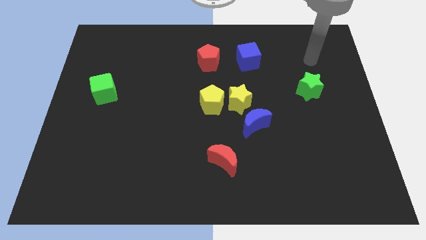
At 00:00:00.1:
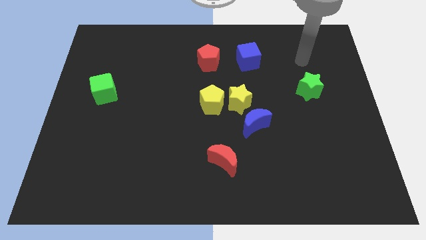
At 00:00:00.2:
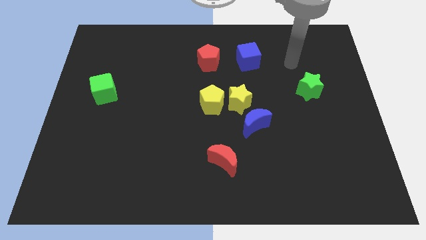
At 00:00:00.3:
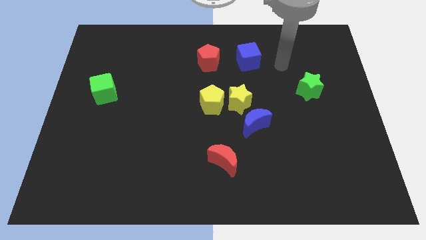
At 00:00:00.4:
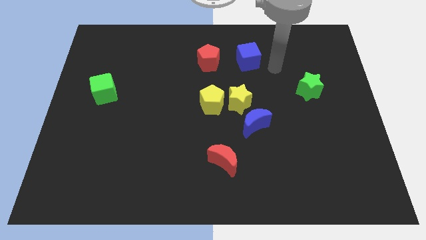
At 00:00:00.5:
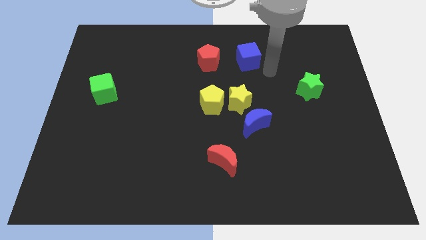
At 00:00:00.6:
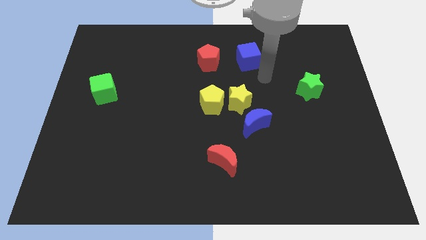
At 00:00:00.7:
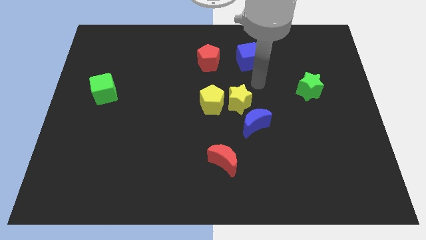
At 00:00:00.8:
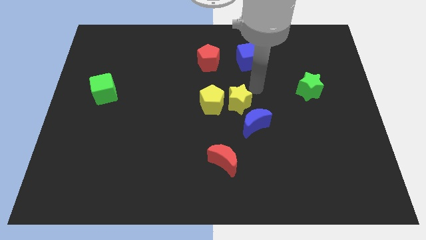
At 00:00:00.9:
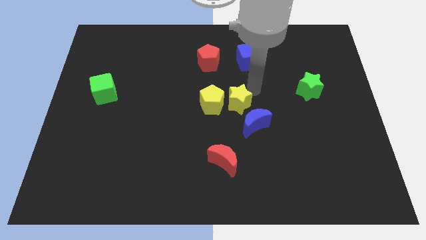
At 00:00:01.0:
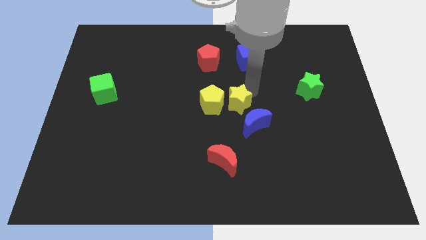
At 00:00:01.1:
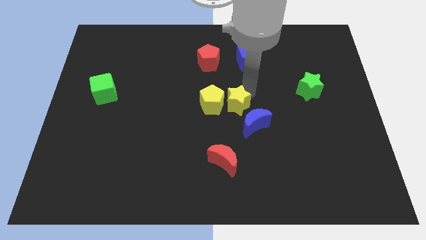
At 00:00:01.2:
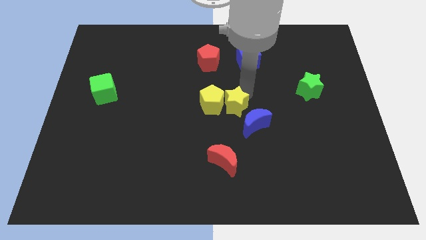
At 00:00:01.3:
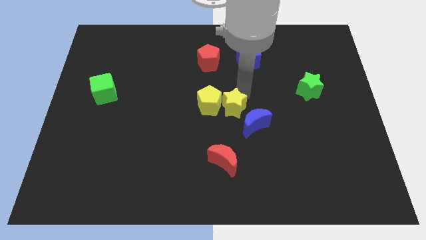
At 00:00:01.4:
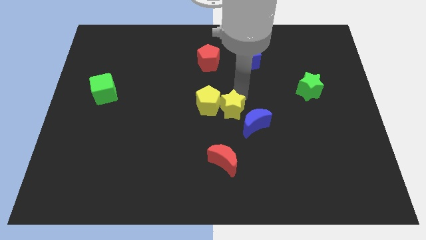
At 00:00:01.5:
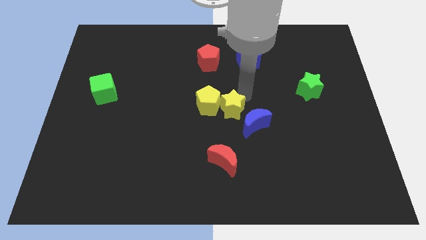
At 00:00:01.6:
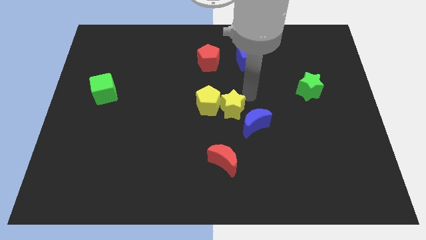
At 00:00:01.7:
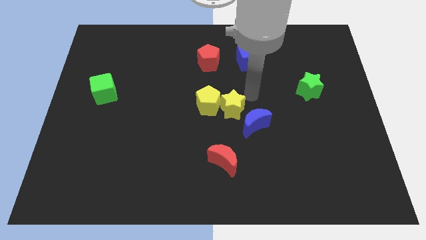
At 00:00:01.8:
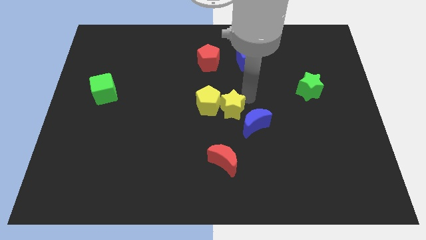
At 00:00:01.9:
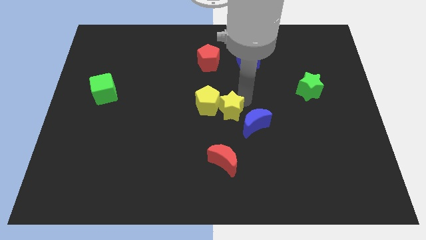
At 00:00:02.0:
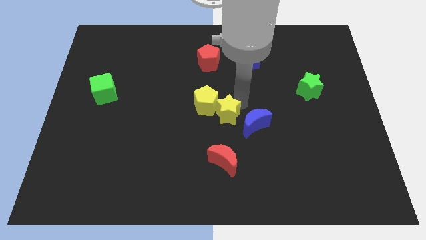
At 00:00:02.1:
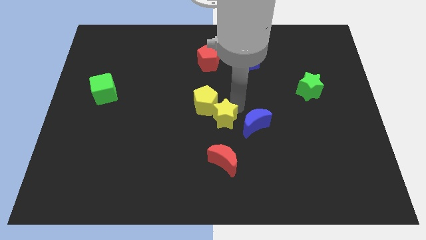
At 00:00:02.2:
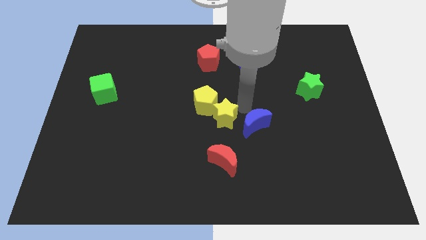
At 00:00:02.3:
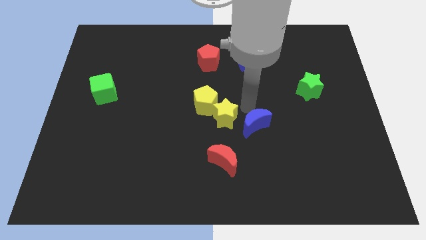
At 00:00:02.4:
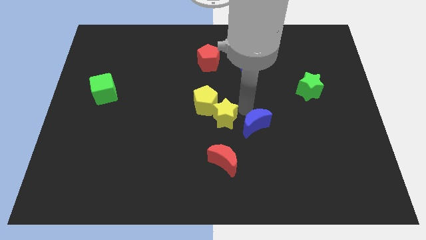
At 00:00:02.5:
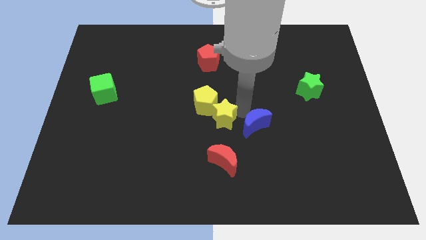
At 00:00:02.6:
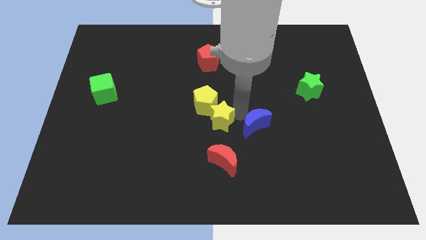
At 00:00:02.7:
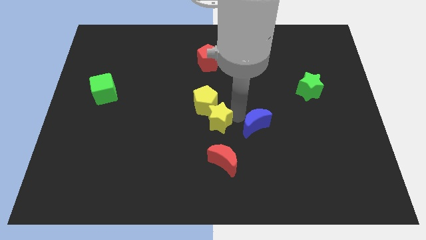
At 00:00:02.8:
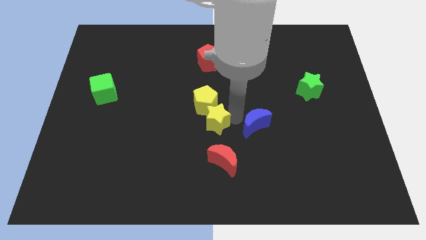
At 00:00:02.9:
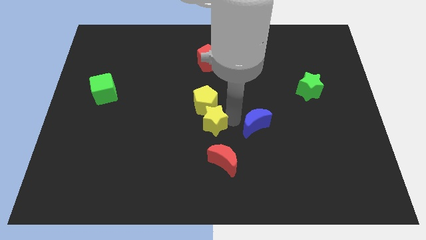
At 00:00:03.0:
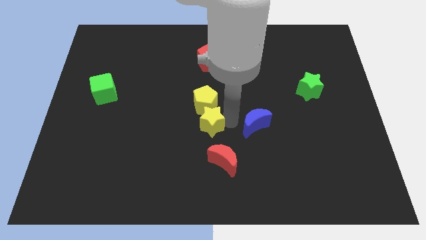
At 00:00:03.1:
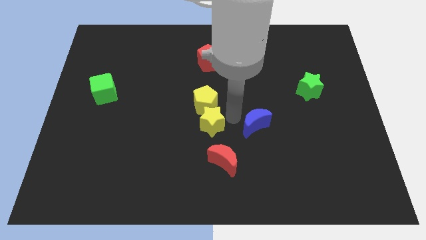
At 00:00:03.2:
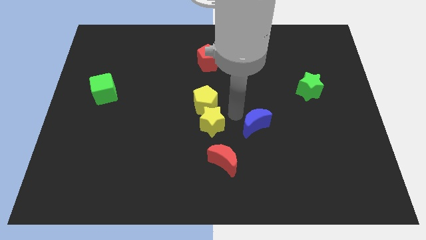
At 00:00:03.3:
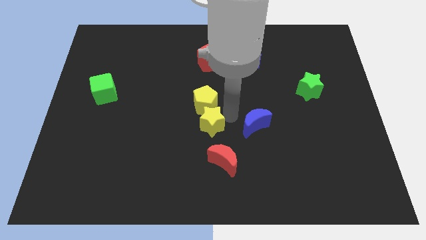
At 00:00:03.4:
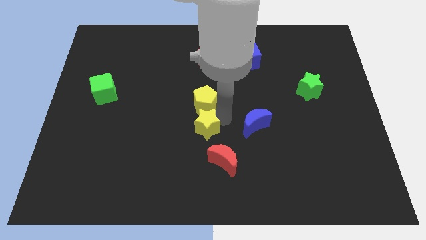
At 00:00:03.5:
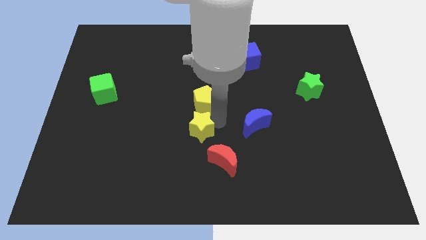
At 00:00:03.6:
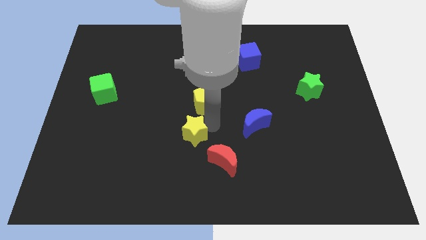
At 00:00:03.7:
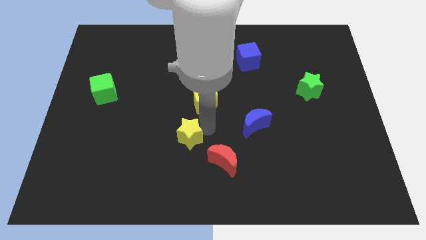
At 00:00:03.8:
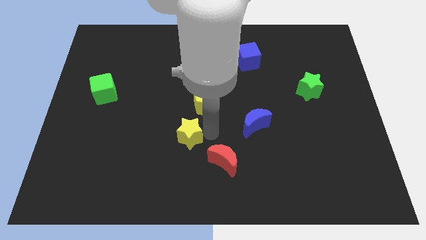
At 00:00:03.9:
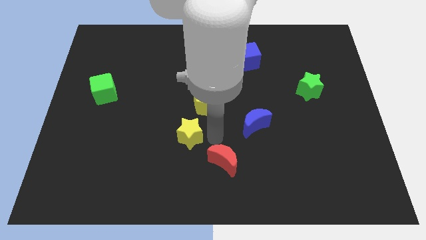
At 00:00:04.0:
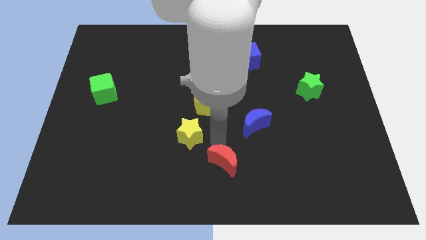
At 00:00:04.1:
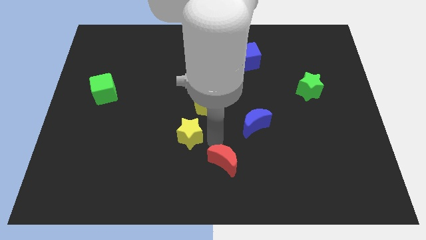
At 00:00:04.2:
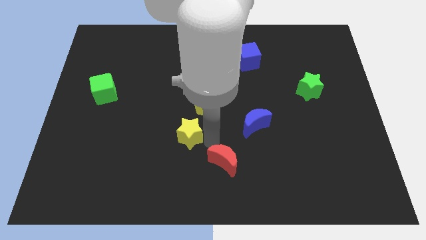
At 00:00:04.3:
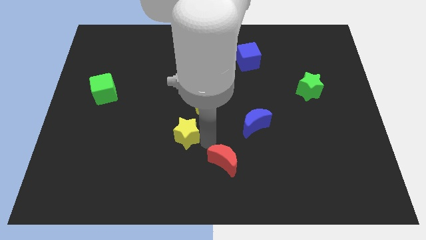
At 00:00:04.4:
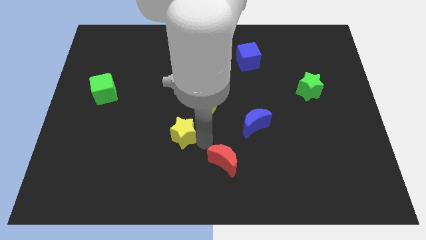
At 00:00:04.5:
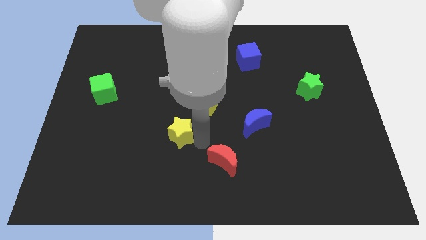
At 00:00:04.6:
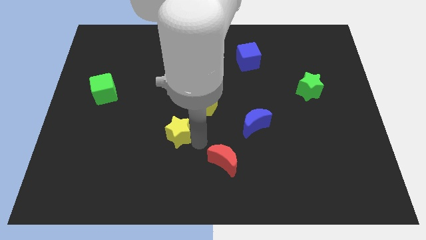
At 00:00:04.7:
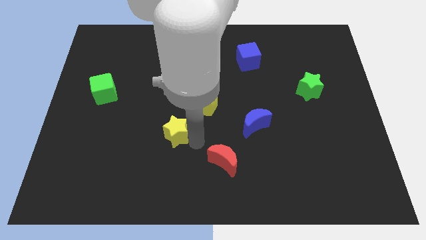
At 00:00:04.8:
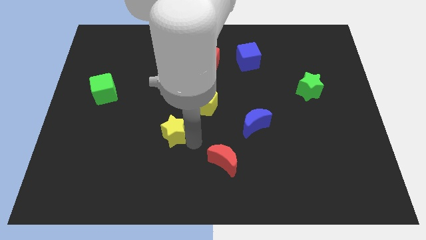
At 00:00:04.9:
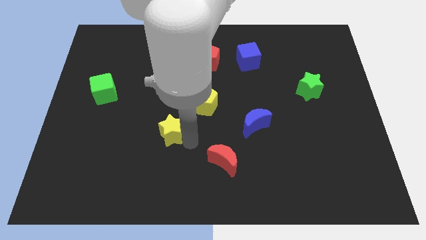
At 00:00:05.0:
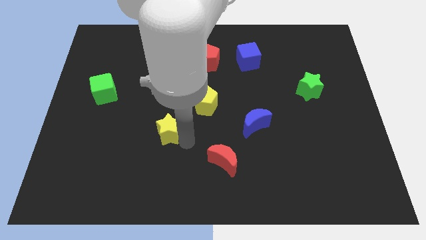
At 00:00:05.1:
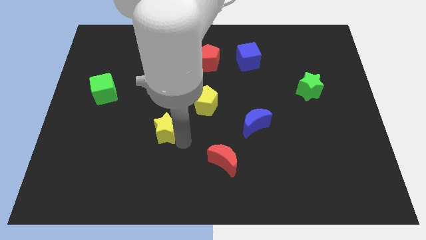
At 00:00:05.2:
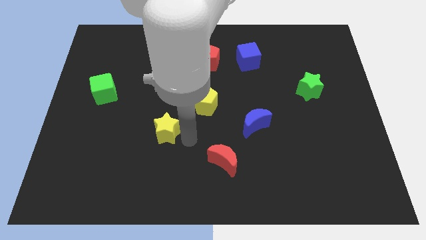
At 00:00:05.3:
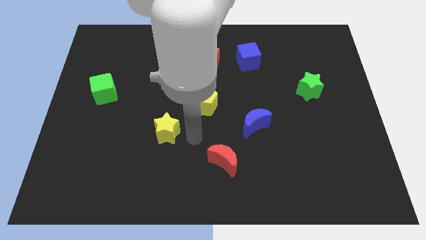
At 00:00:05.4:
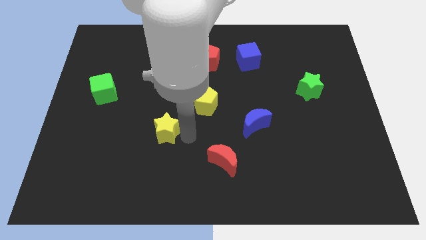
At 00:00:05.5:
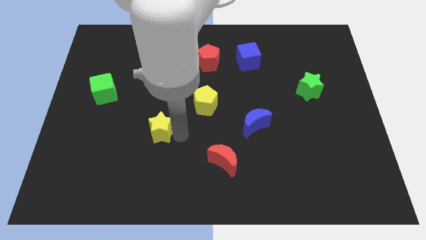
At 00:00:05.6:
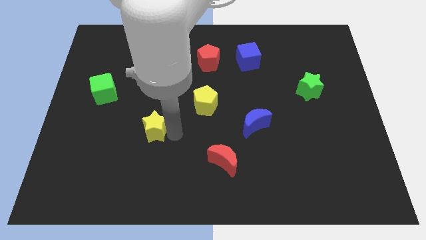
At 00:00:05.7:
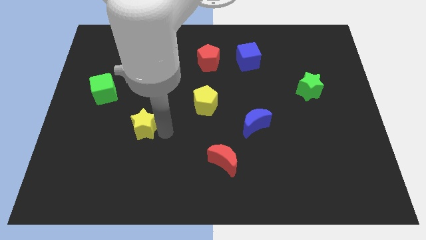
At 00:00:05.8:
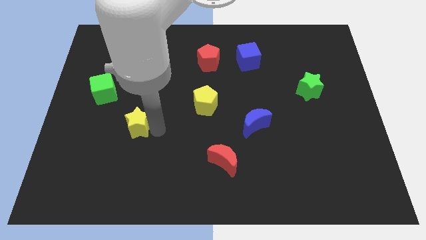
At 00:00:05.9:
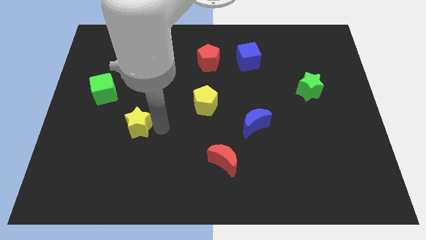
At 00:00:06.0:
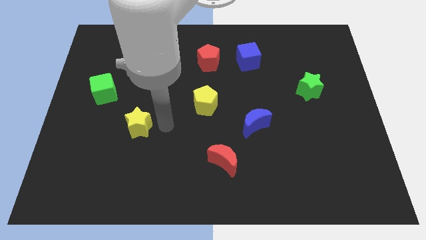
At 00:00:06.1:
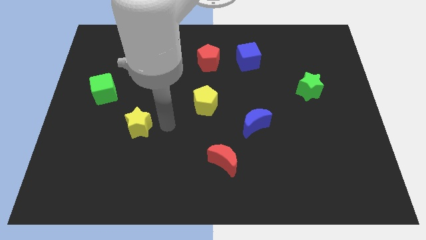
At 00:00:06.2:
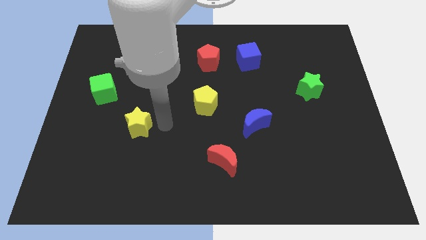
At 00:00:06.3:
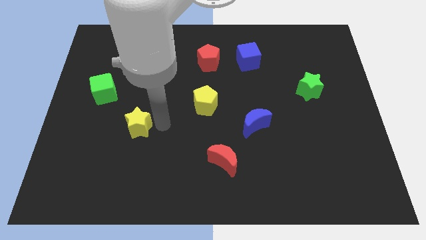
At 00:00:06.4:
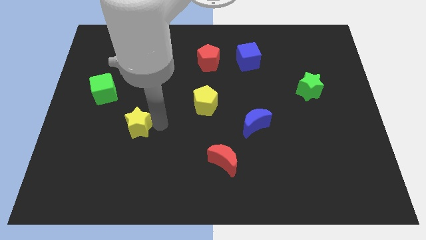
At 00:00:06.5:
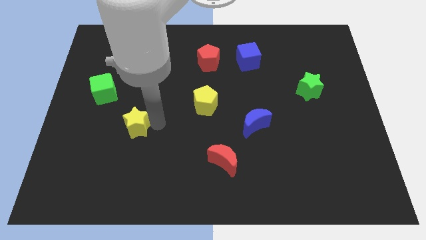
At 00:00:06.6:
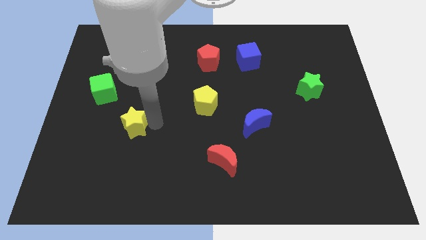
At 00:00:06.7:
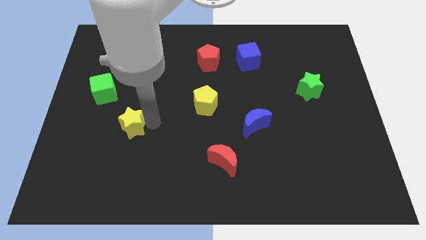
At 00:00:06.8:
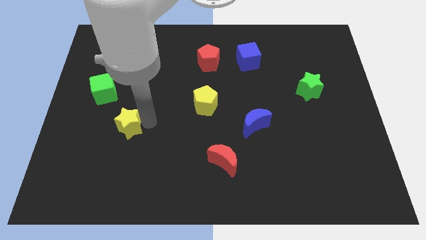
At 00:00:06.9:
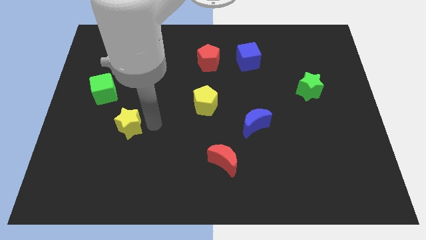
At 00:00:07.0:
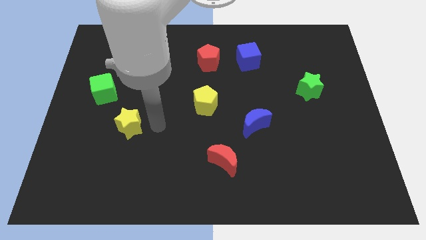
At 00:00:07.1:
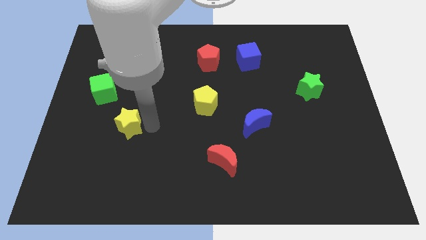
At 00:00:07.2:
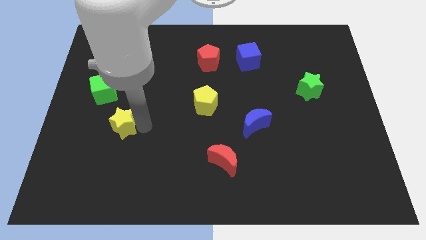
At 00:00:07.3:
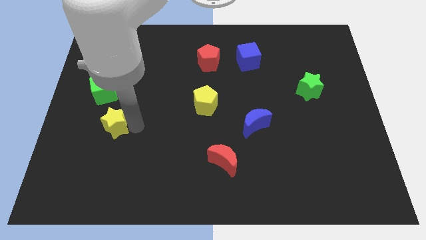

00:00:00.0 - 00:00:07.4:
put the yellow star to the bottom side of the green cube

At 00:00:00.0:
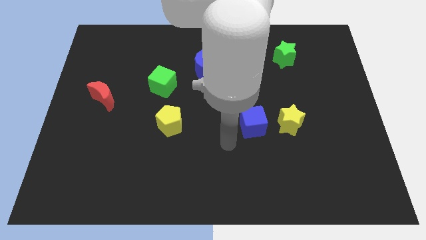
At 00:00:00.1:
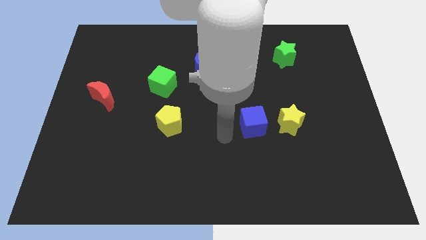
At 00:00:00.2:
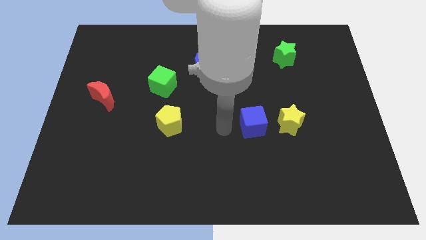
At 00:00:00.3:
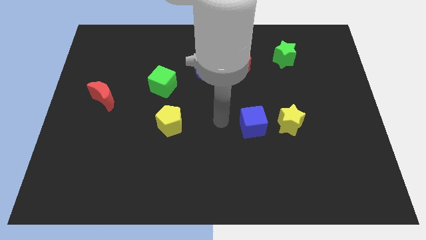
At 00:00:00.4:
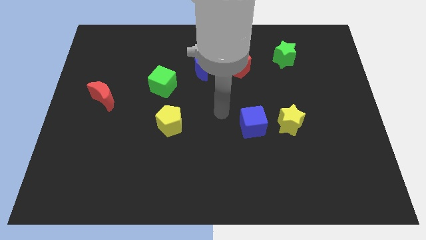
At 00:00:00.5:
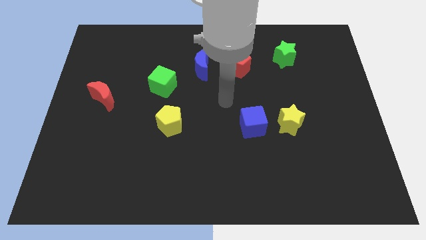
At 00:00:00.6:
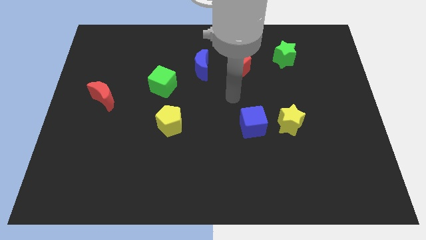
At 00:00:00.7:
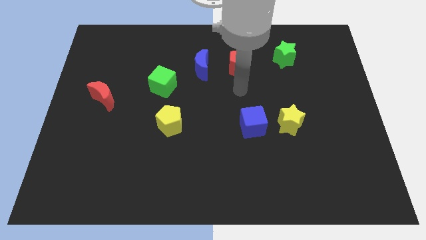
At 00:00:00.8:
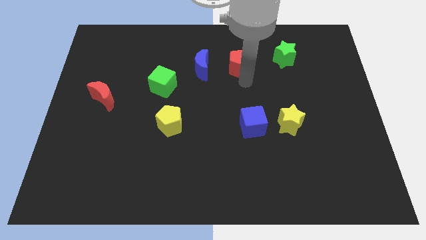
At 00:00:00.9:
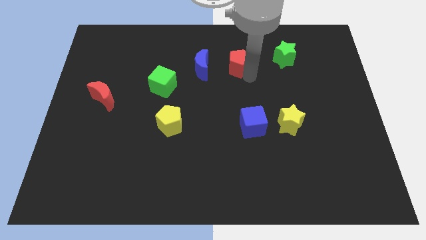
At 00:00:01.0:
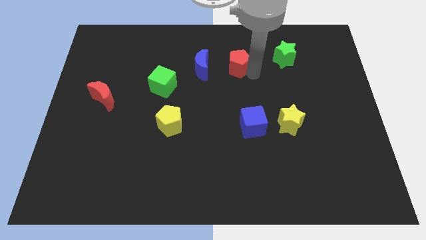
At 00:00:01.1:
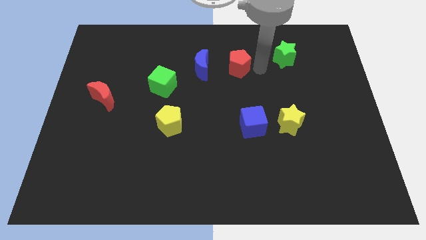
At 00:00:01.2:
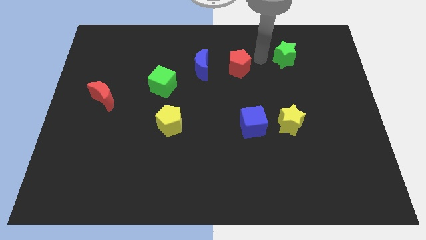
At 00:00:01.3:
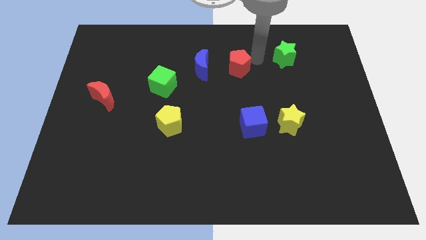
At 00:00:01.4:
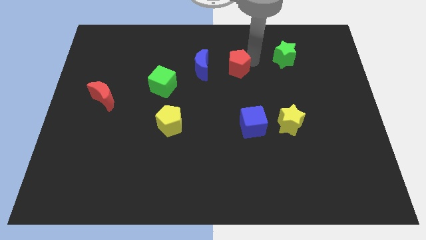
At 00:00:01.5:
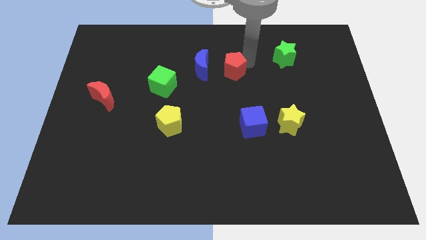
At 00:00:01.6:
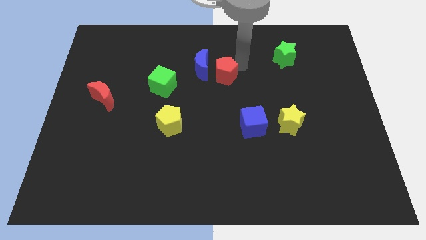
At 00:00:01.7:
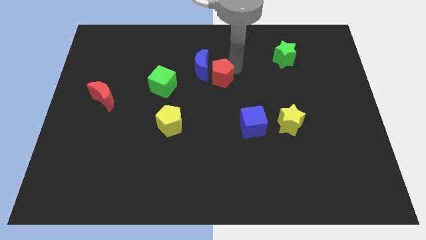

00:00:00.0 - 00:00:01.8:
slide the red pentagon to the right side of the green cube
